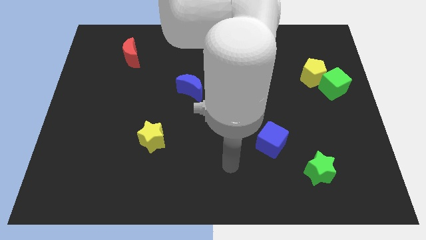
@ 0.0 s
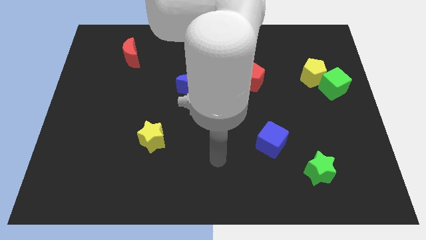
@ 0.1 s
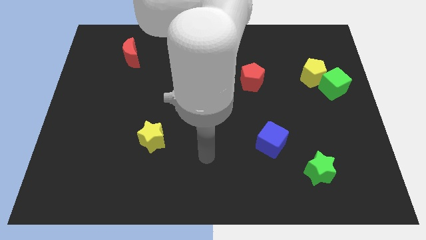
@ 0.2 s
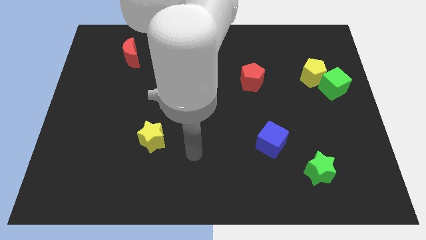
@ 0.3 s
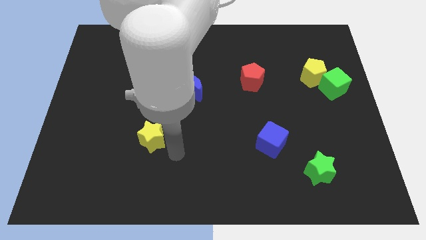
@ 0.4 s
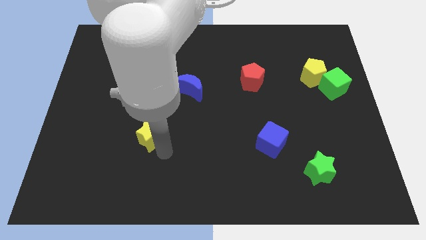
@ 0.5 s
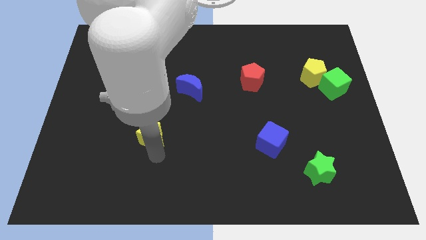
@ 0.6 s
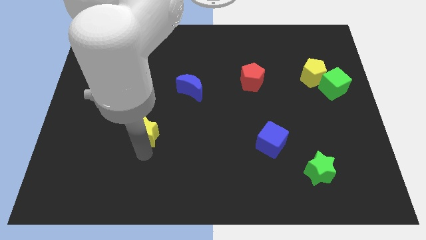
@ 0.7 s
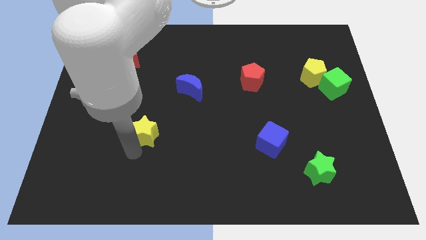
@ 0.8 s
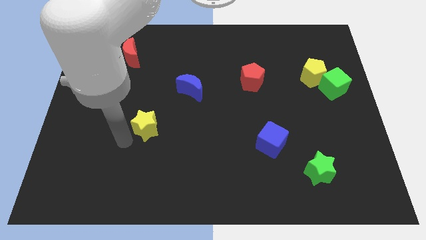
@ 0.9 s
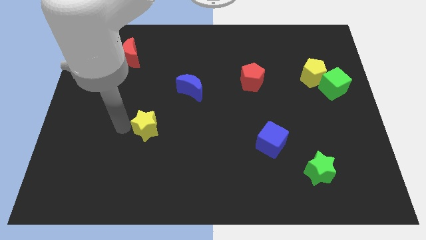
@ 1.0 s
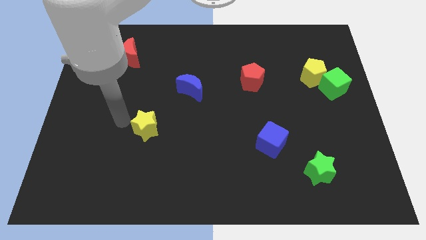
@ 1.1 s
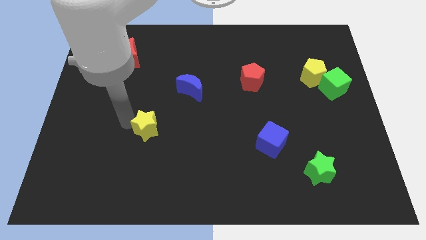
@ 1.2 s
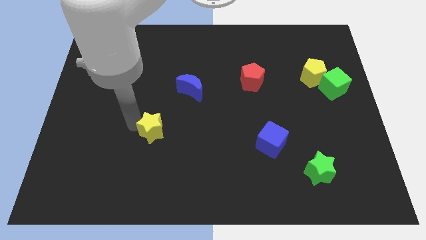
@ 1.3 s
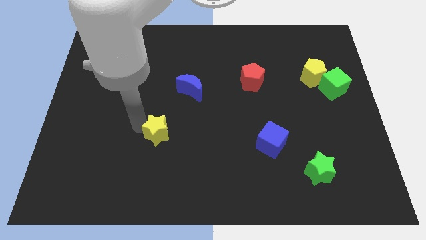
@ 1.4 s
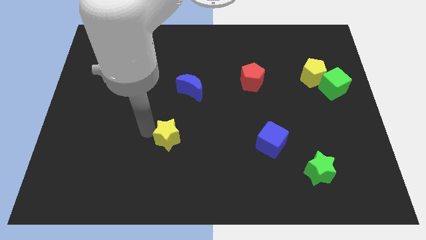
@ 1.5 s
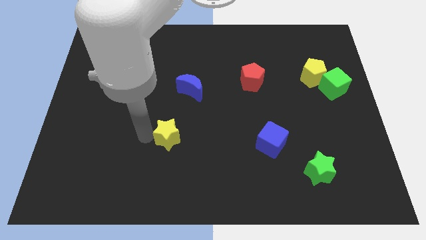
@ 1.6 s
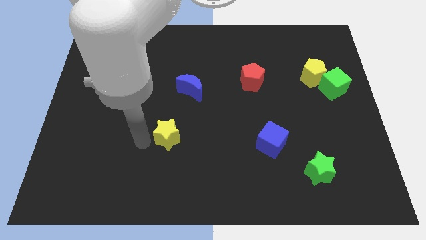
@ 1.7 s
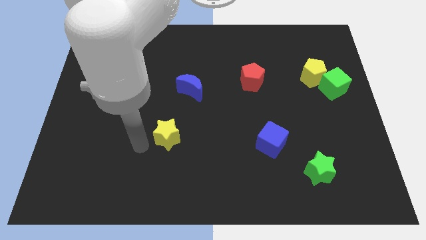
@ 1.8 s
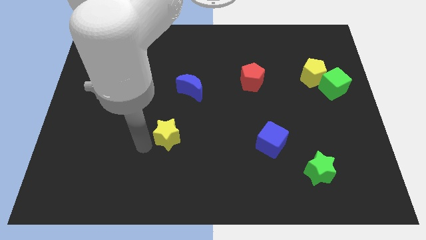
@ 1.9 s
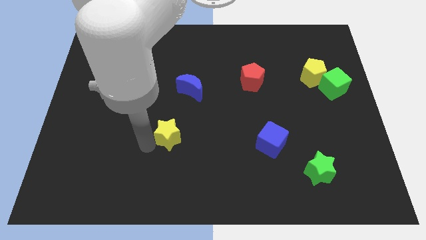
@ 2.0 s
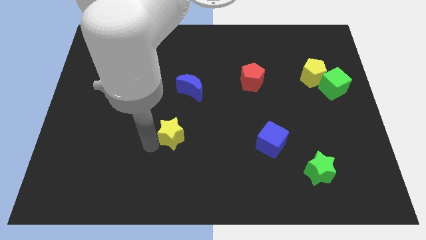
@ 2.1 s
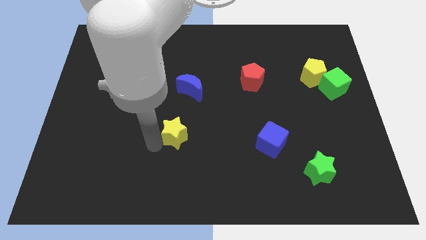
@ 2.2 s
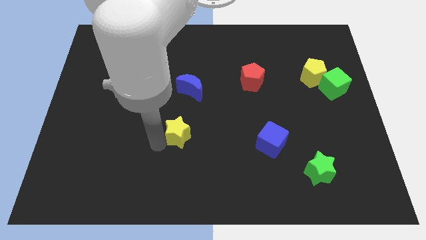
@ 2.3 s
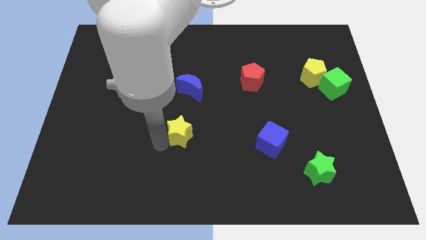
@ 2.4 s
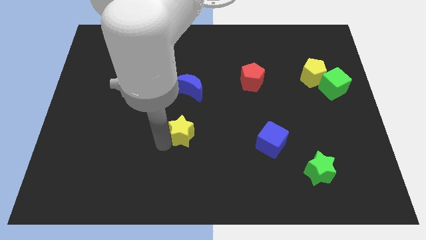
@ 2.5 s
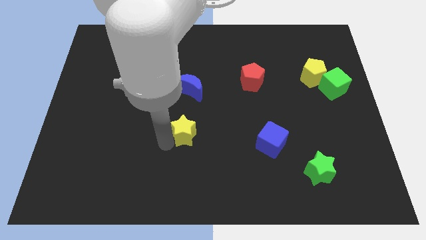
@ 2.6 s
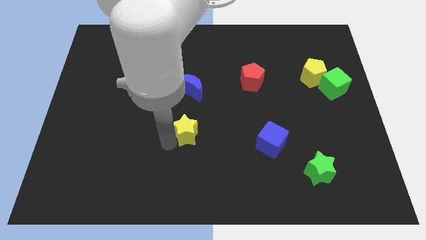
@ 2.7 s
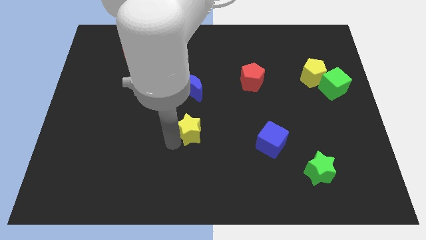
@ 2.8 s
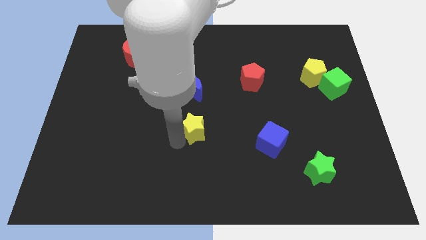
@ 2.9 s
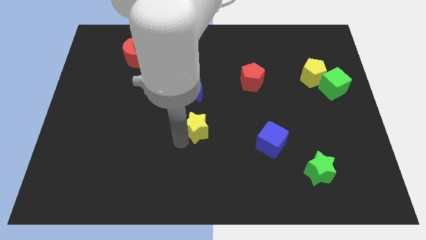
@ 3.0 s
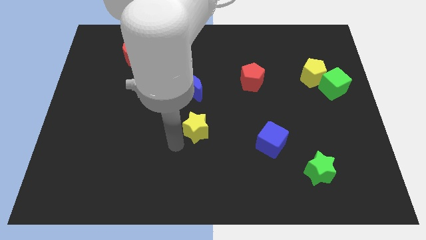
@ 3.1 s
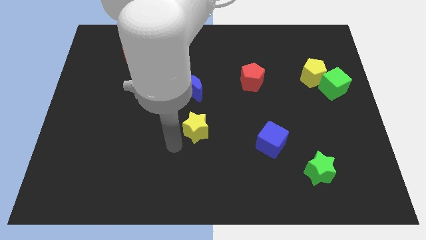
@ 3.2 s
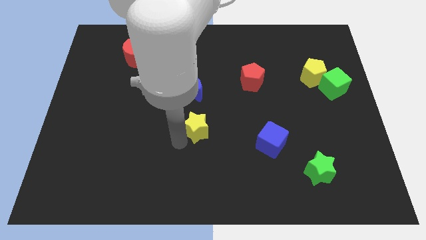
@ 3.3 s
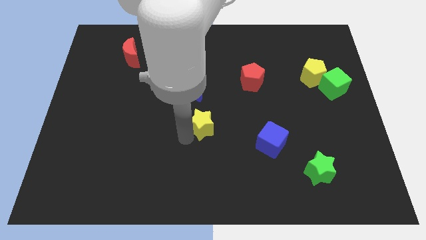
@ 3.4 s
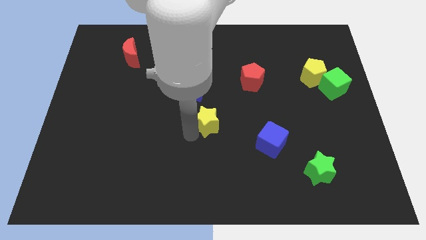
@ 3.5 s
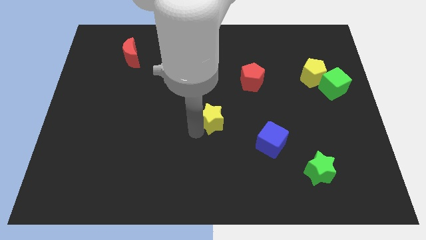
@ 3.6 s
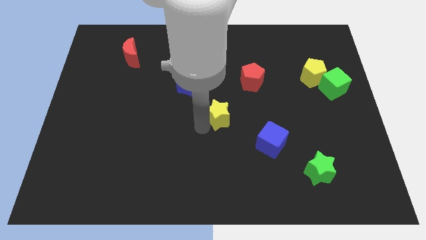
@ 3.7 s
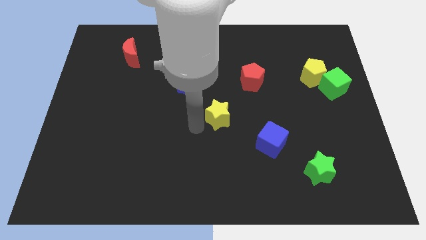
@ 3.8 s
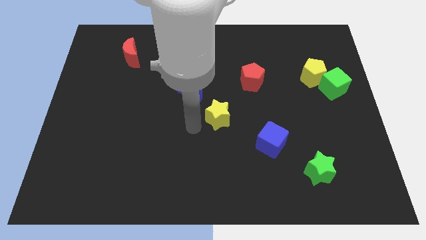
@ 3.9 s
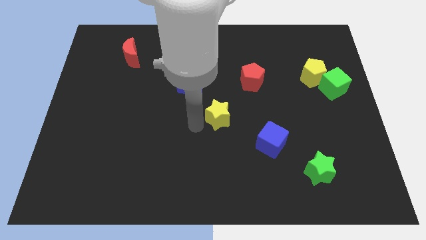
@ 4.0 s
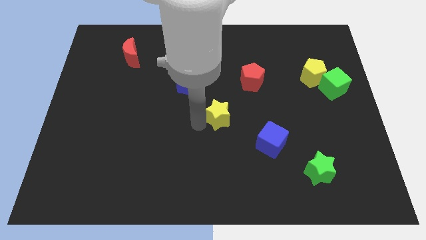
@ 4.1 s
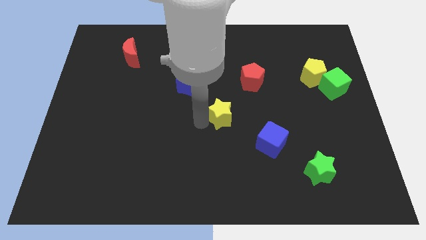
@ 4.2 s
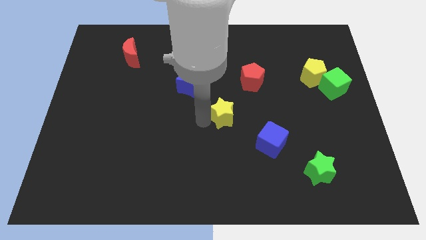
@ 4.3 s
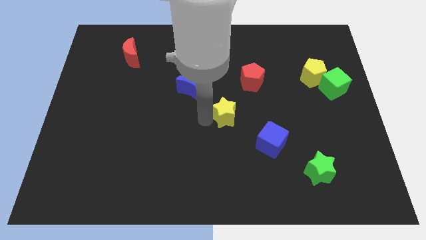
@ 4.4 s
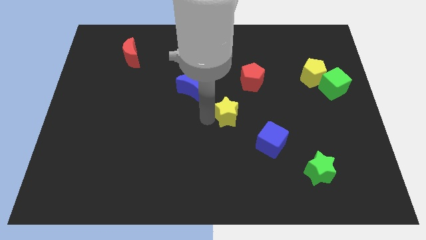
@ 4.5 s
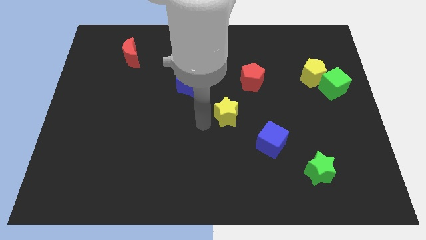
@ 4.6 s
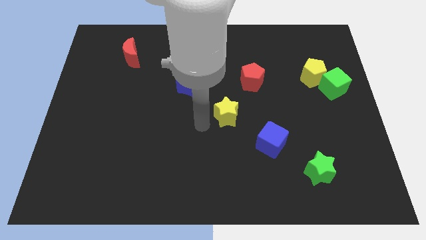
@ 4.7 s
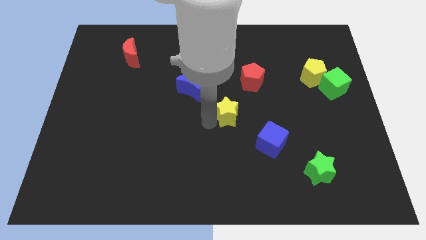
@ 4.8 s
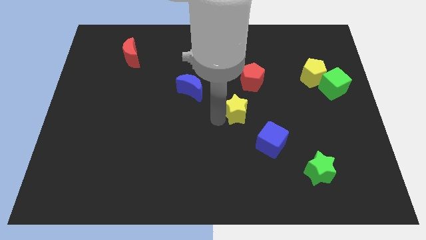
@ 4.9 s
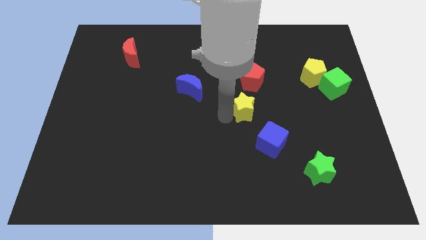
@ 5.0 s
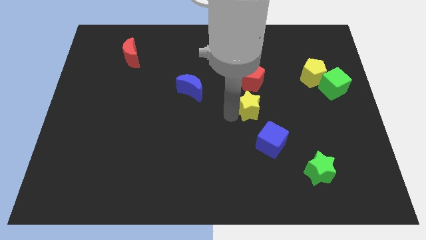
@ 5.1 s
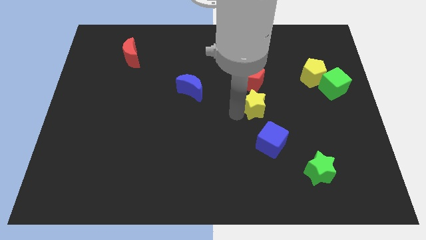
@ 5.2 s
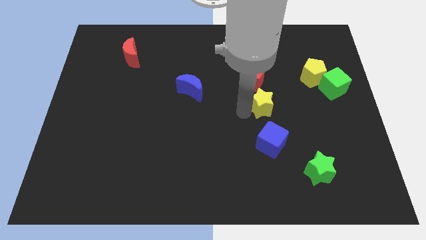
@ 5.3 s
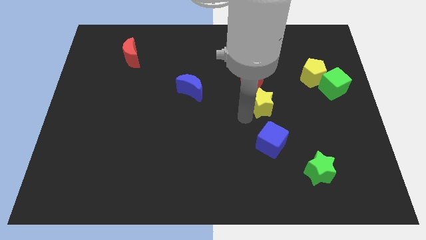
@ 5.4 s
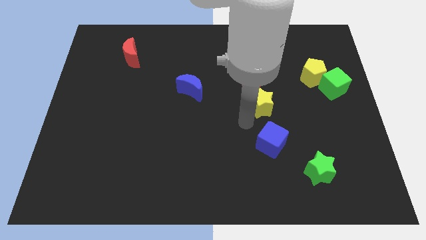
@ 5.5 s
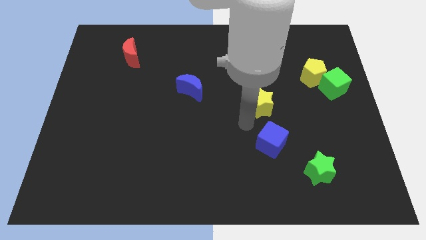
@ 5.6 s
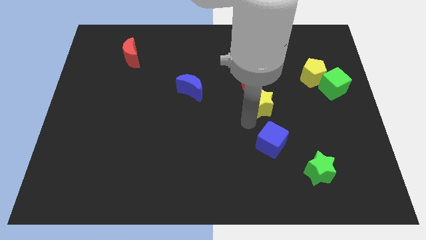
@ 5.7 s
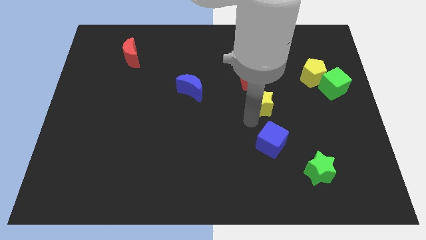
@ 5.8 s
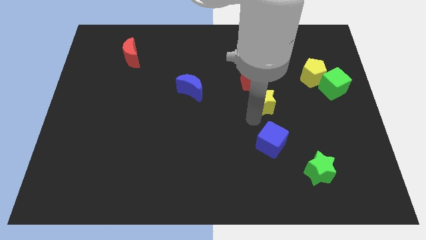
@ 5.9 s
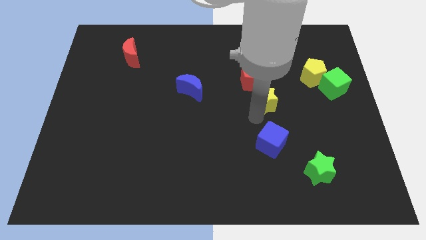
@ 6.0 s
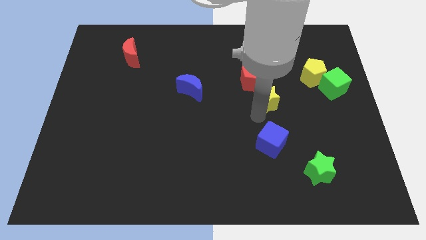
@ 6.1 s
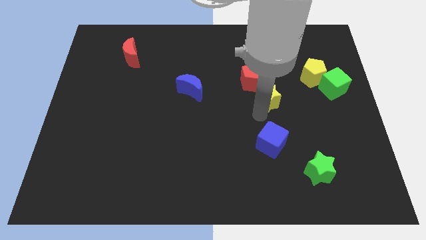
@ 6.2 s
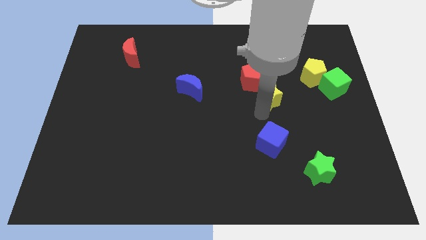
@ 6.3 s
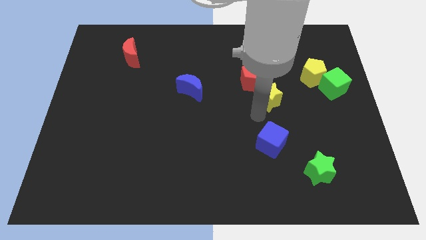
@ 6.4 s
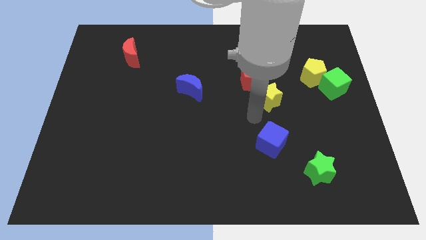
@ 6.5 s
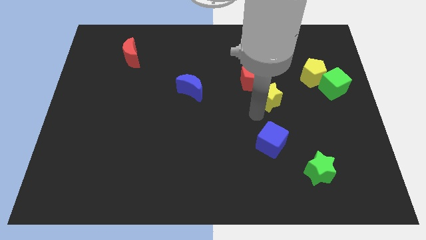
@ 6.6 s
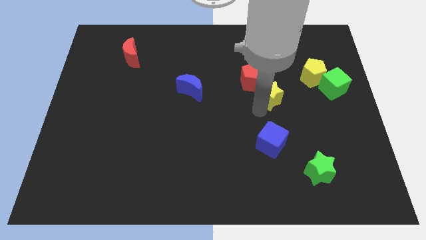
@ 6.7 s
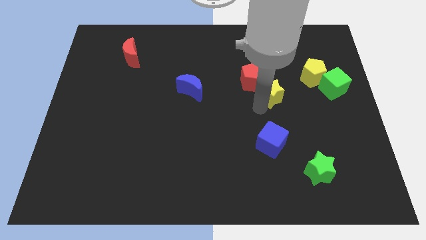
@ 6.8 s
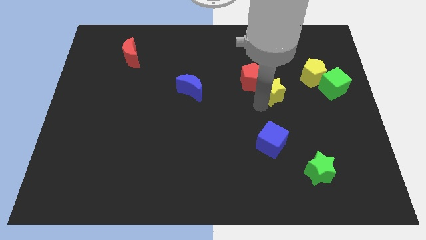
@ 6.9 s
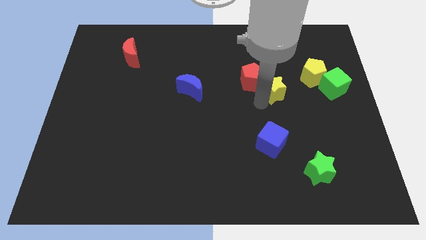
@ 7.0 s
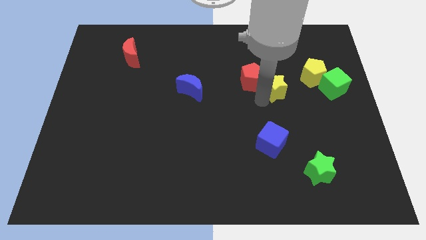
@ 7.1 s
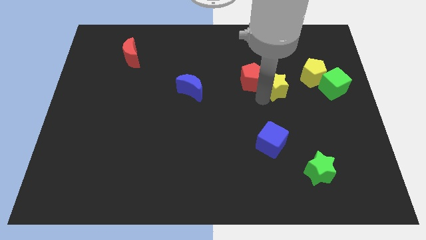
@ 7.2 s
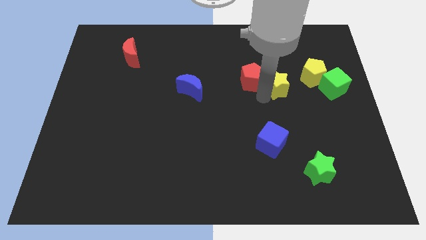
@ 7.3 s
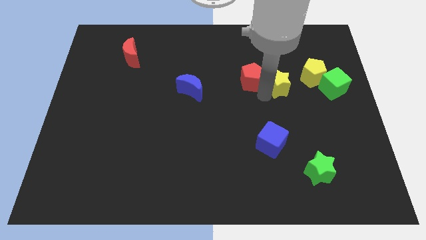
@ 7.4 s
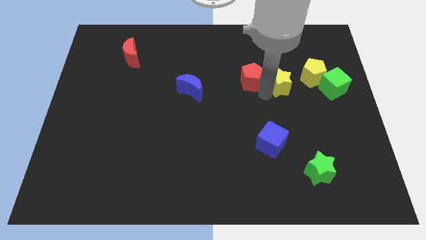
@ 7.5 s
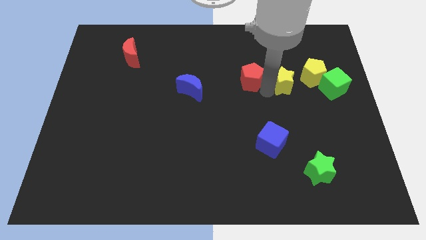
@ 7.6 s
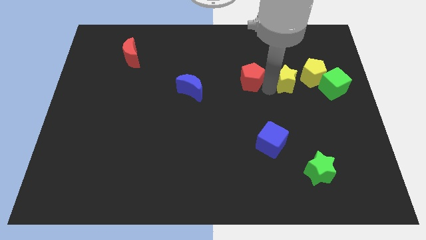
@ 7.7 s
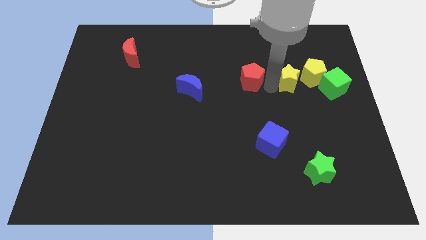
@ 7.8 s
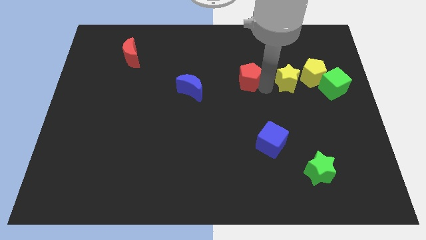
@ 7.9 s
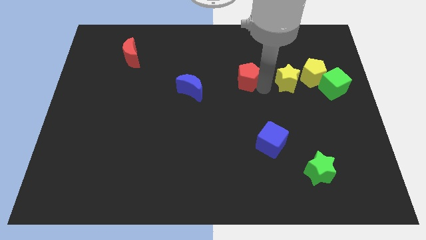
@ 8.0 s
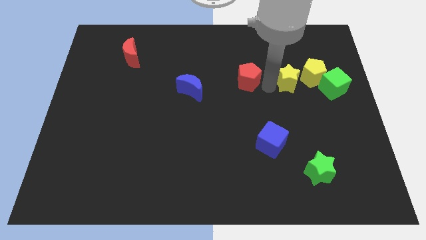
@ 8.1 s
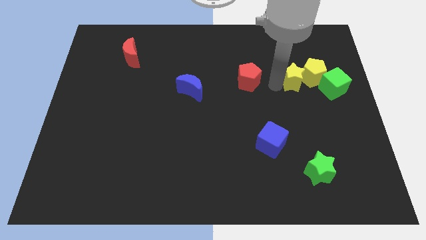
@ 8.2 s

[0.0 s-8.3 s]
put the yellow star towards the yellow pentagon
